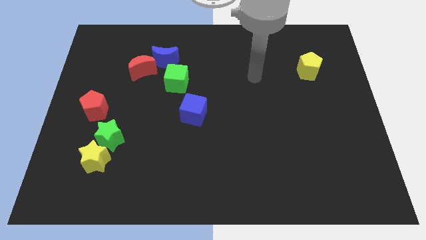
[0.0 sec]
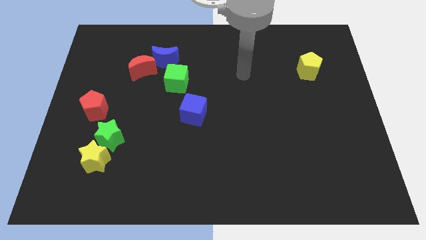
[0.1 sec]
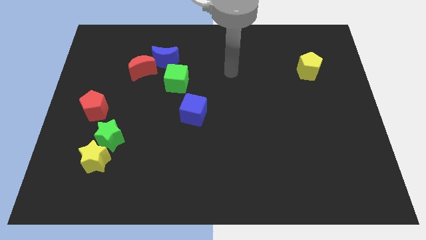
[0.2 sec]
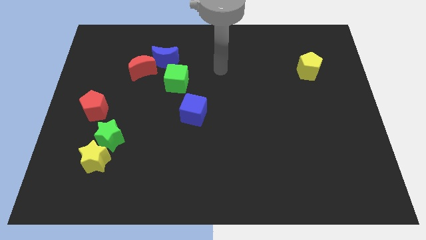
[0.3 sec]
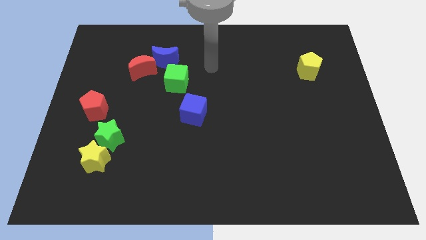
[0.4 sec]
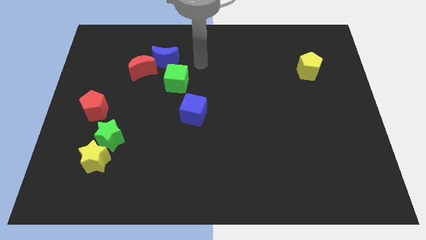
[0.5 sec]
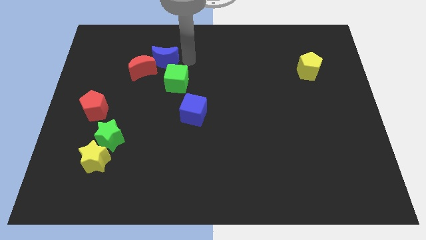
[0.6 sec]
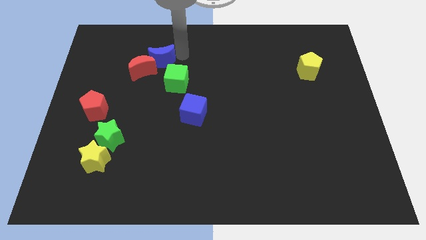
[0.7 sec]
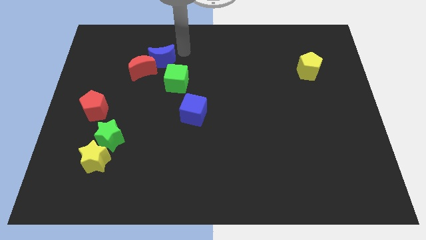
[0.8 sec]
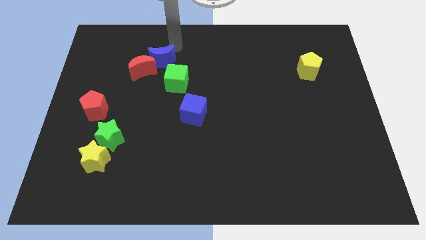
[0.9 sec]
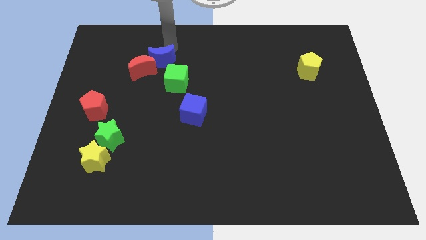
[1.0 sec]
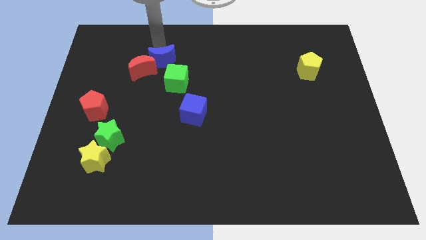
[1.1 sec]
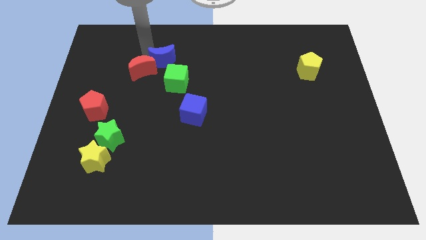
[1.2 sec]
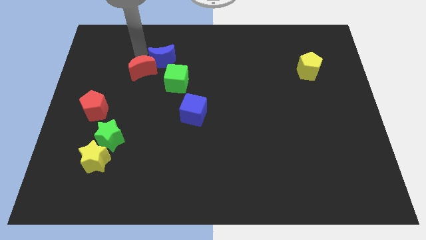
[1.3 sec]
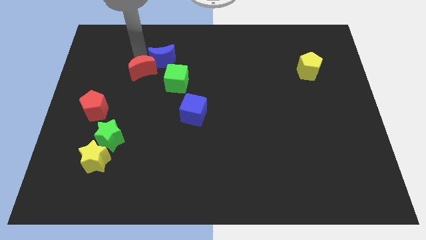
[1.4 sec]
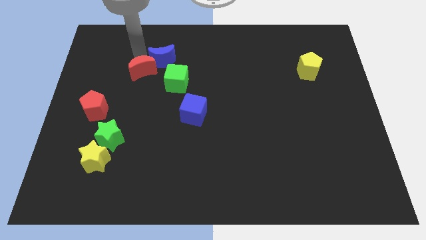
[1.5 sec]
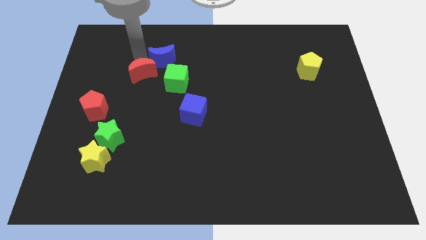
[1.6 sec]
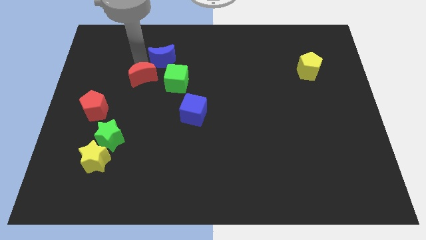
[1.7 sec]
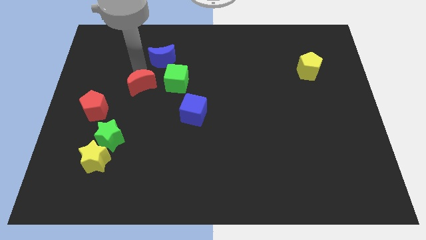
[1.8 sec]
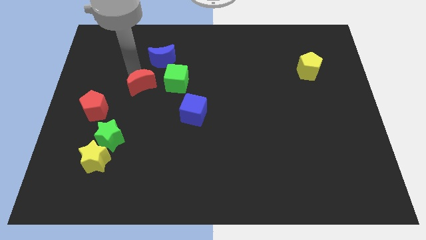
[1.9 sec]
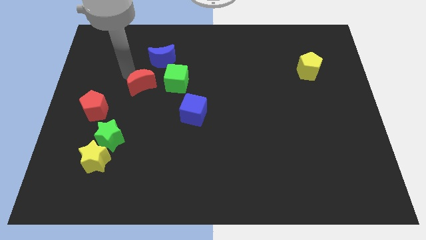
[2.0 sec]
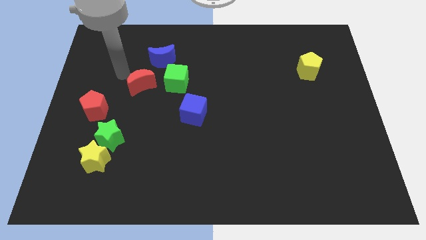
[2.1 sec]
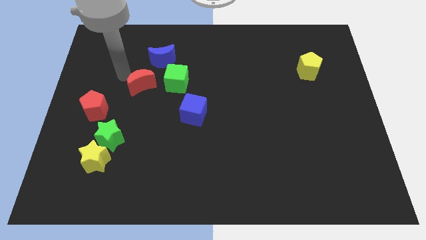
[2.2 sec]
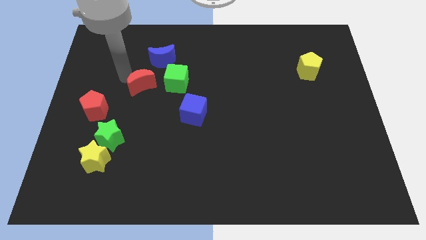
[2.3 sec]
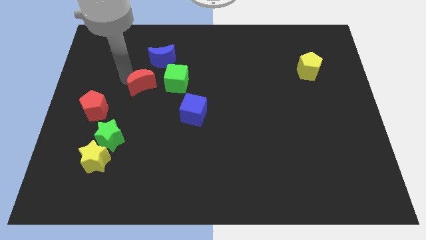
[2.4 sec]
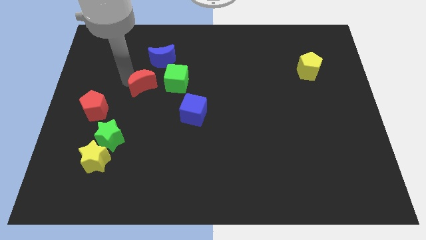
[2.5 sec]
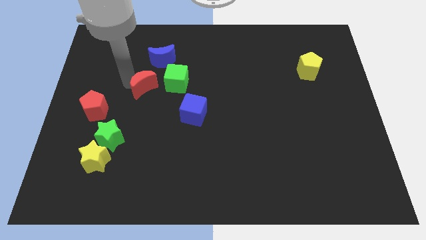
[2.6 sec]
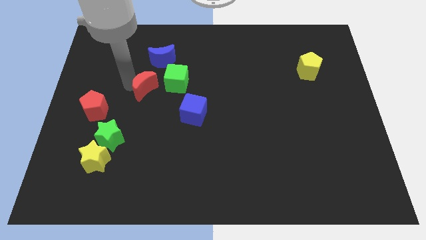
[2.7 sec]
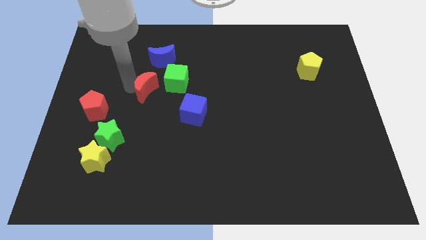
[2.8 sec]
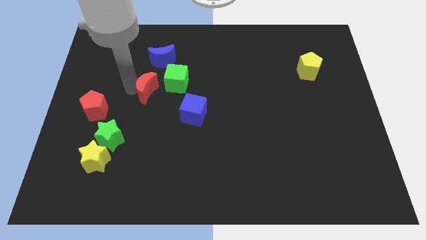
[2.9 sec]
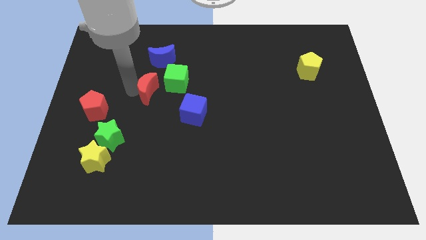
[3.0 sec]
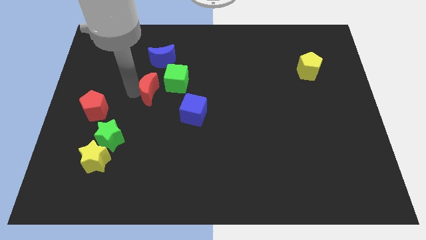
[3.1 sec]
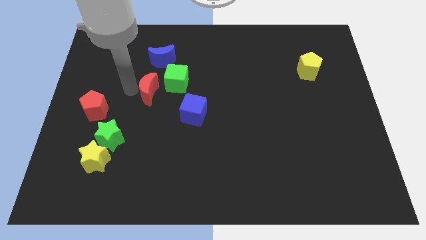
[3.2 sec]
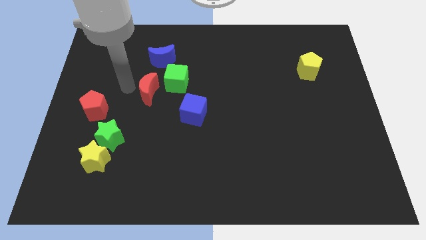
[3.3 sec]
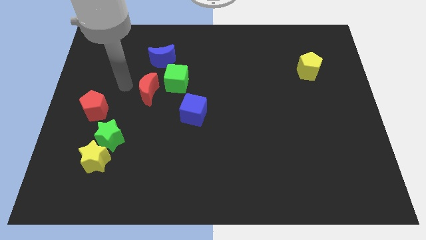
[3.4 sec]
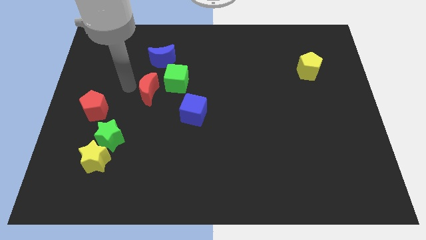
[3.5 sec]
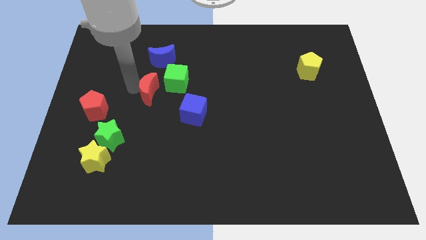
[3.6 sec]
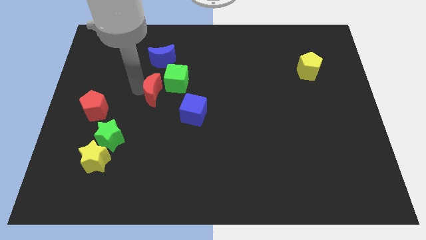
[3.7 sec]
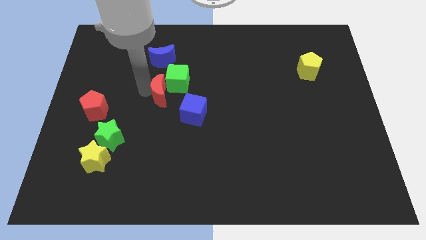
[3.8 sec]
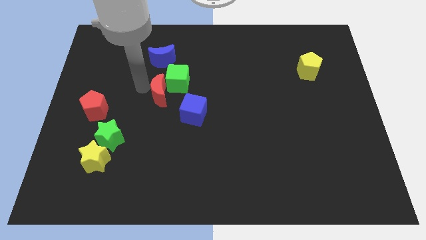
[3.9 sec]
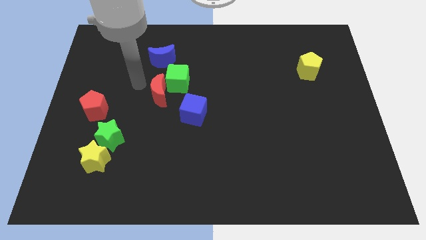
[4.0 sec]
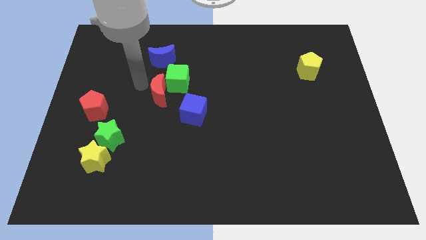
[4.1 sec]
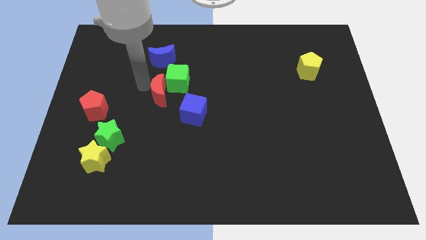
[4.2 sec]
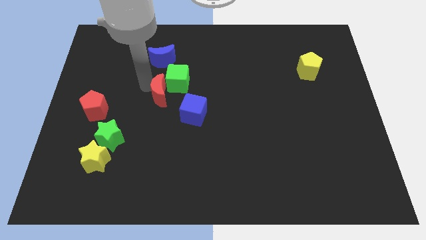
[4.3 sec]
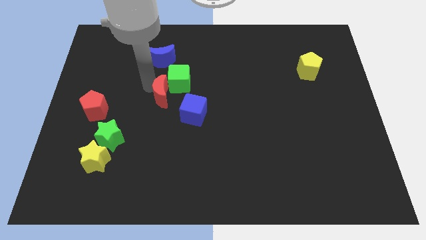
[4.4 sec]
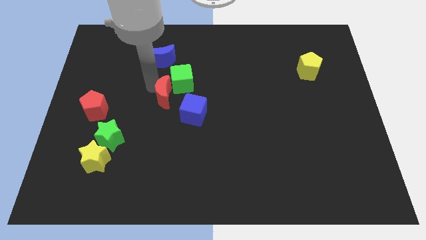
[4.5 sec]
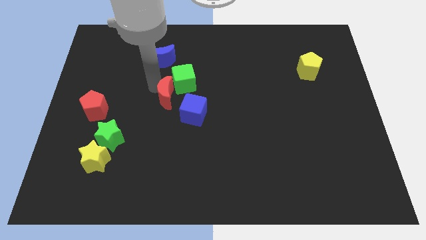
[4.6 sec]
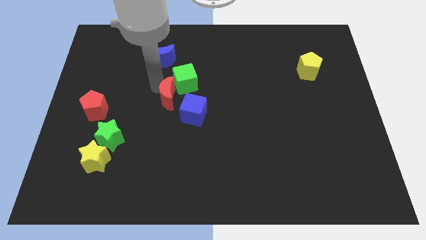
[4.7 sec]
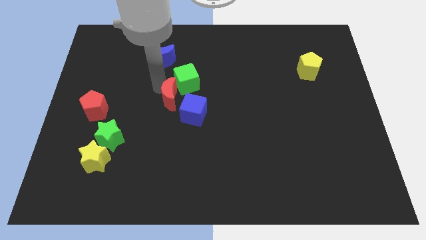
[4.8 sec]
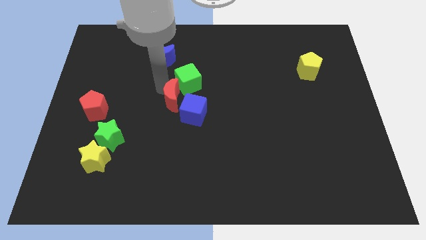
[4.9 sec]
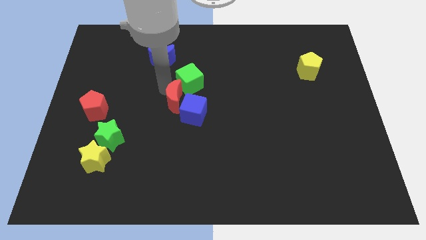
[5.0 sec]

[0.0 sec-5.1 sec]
move the red moon towards the blue cube

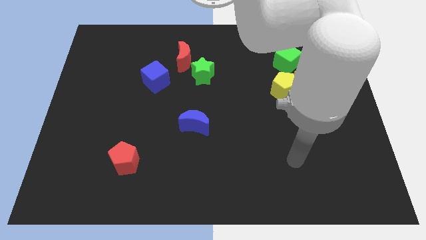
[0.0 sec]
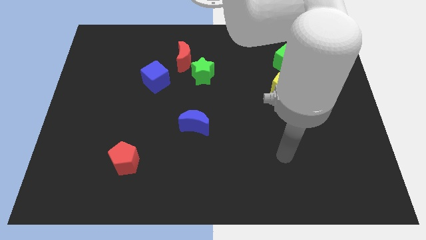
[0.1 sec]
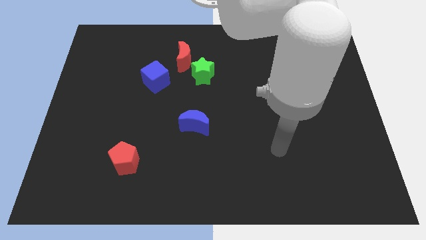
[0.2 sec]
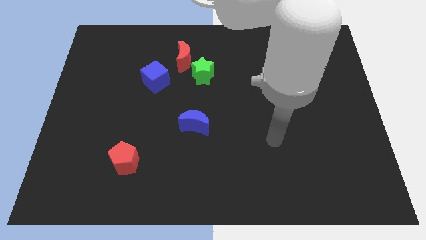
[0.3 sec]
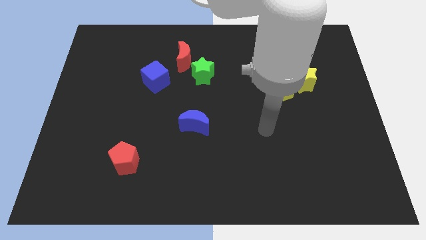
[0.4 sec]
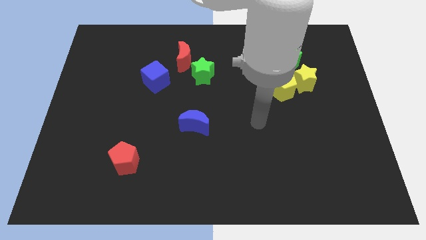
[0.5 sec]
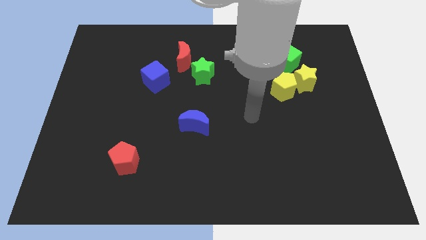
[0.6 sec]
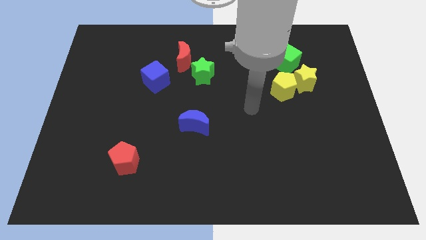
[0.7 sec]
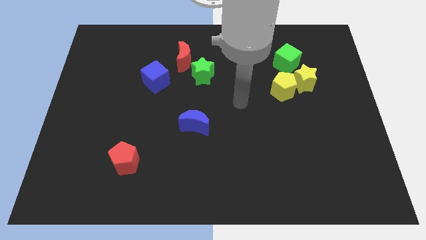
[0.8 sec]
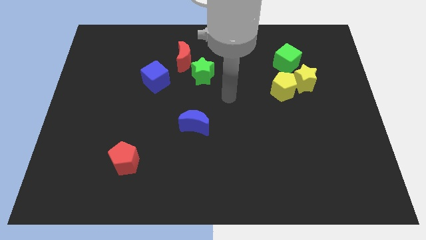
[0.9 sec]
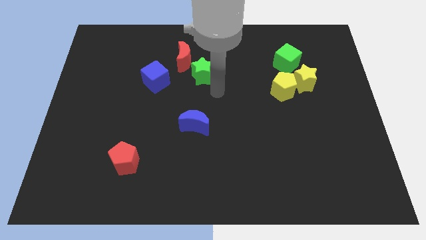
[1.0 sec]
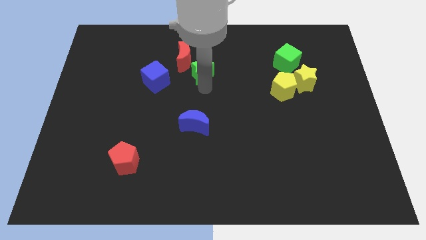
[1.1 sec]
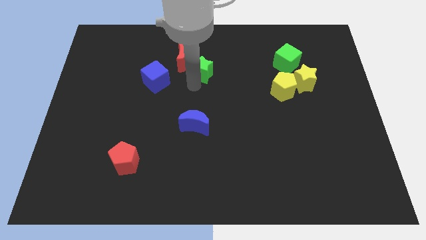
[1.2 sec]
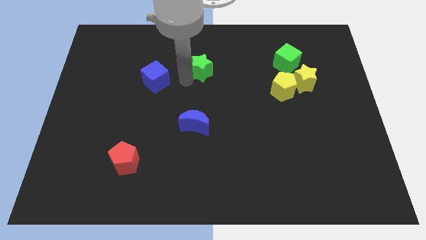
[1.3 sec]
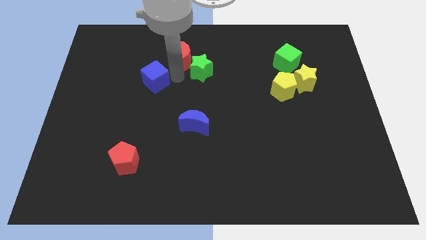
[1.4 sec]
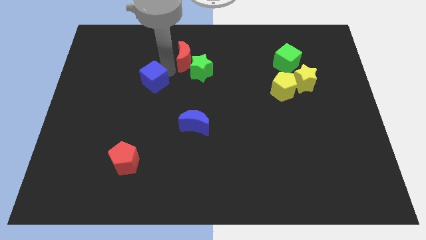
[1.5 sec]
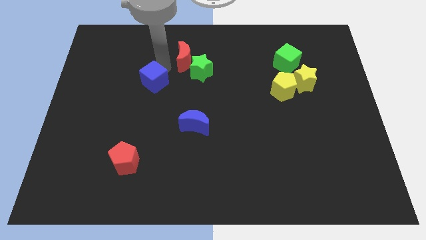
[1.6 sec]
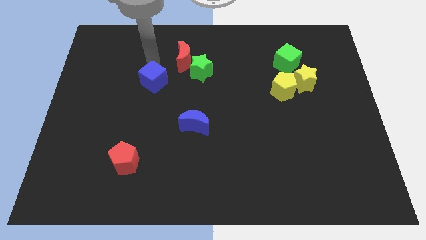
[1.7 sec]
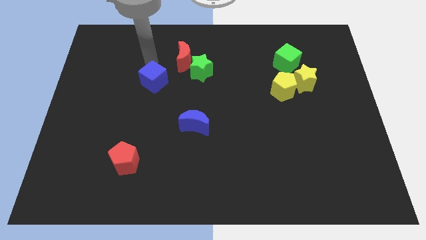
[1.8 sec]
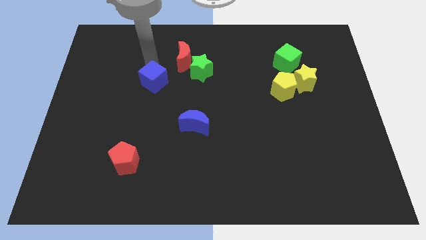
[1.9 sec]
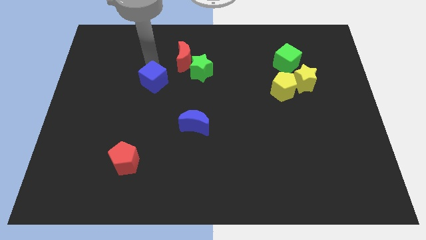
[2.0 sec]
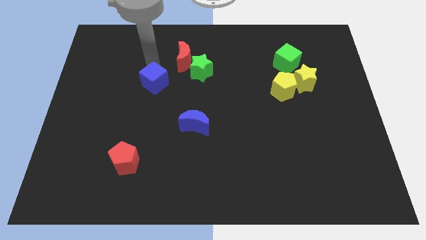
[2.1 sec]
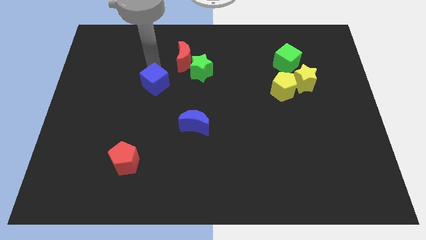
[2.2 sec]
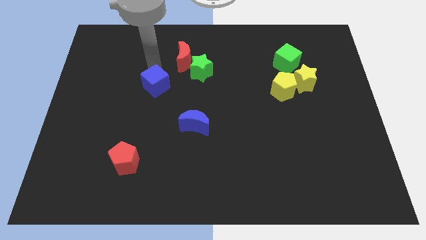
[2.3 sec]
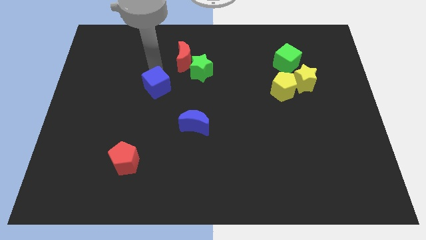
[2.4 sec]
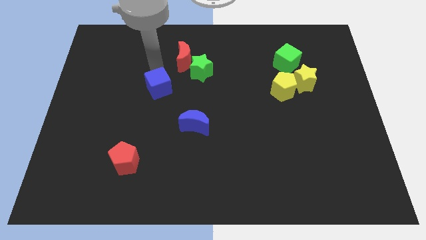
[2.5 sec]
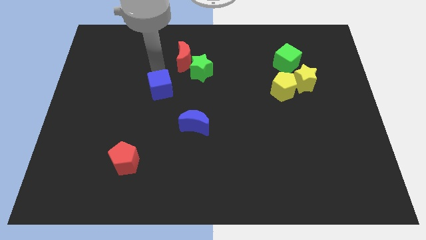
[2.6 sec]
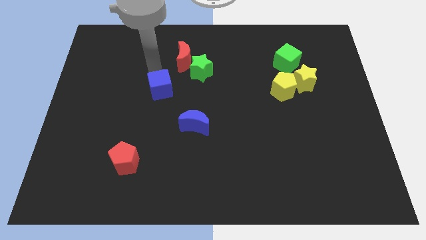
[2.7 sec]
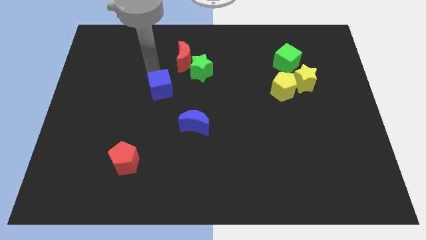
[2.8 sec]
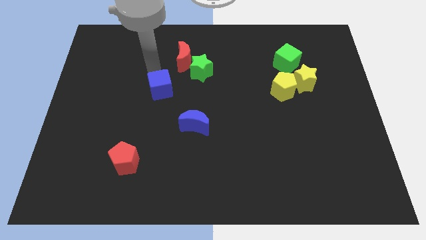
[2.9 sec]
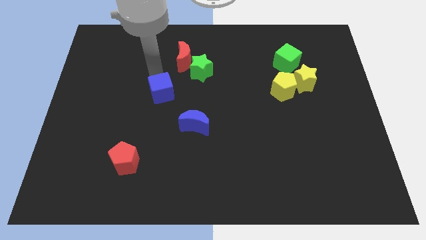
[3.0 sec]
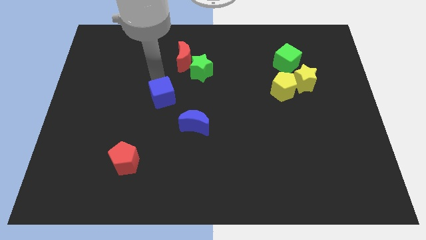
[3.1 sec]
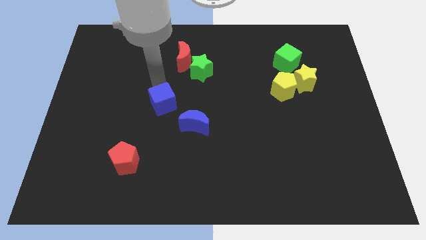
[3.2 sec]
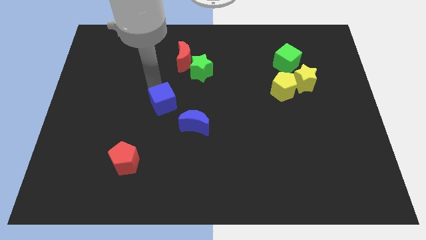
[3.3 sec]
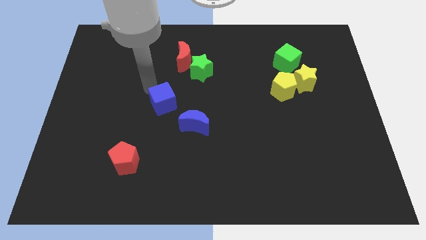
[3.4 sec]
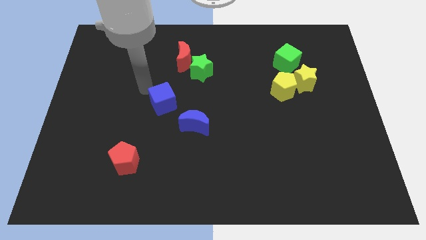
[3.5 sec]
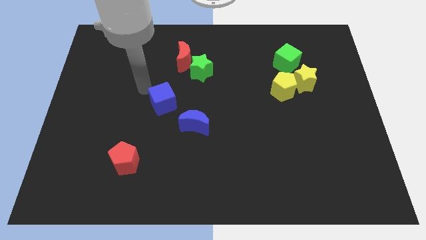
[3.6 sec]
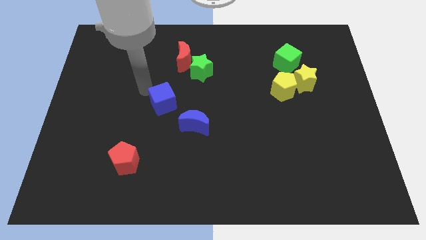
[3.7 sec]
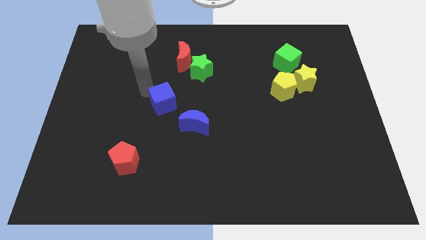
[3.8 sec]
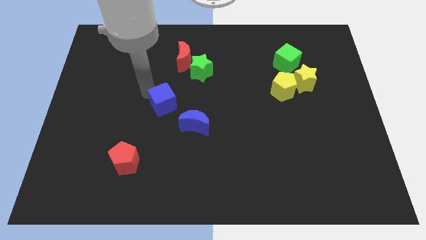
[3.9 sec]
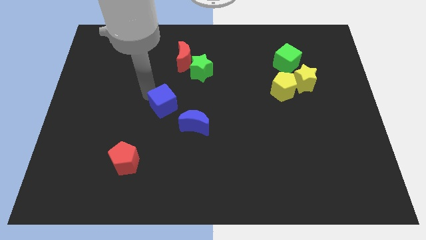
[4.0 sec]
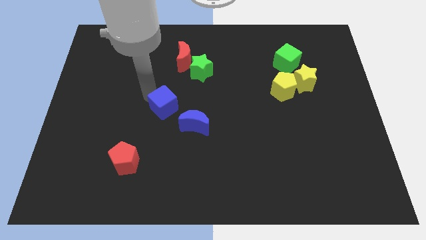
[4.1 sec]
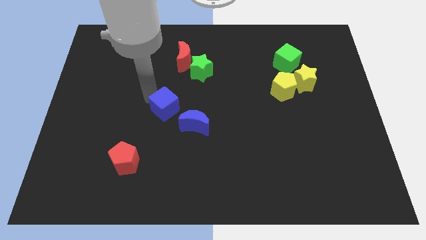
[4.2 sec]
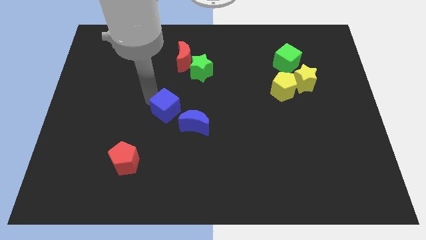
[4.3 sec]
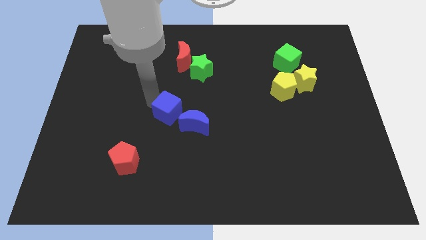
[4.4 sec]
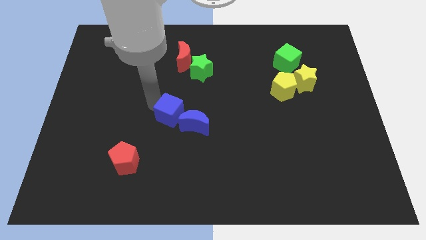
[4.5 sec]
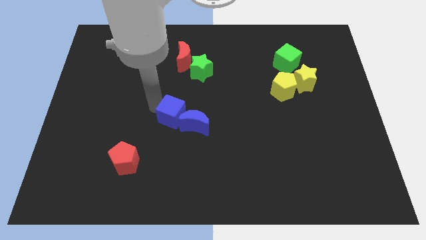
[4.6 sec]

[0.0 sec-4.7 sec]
move the blue cube to the blue moon
